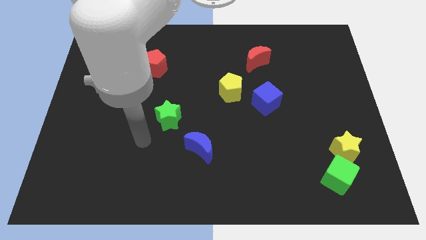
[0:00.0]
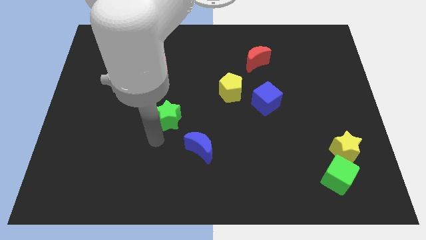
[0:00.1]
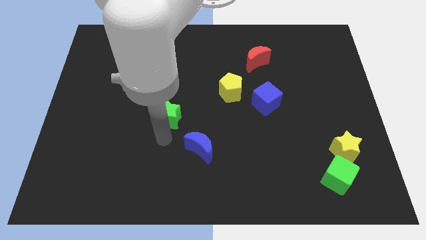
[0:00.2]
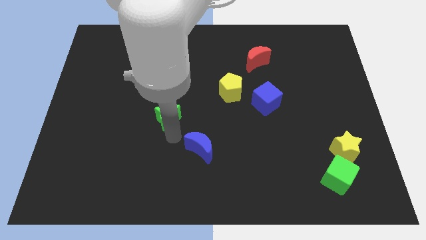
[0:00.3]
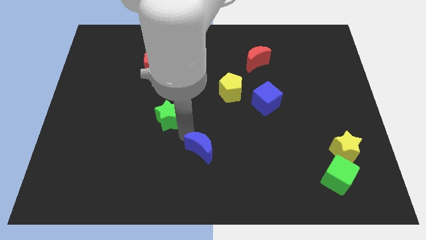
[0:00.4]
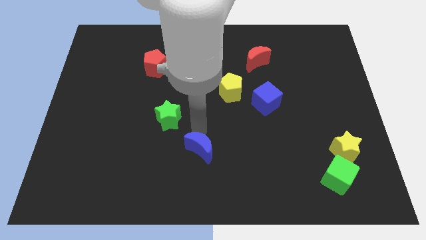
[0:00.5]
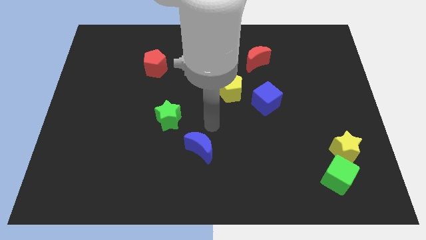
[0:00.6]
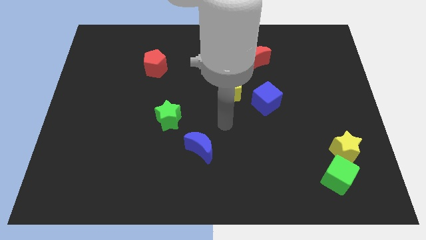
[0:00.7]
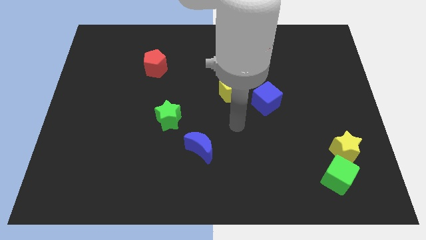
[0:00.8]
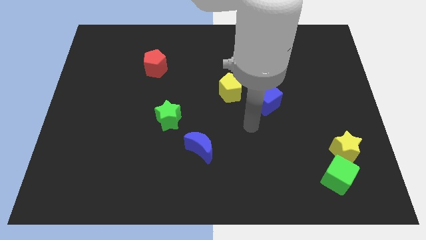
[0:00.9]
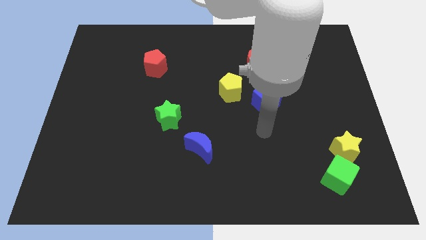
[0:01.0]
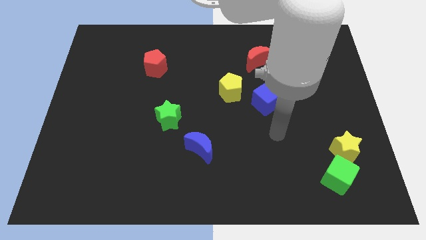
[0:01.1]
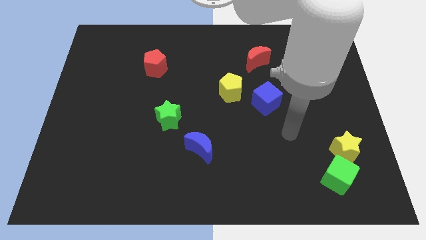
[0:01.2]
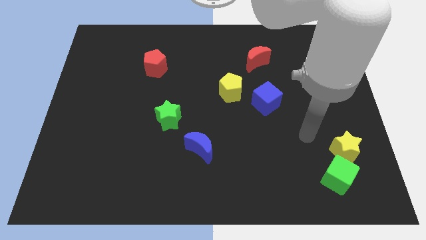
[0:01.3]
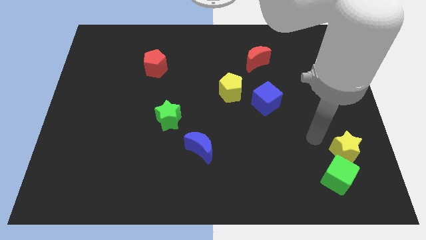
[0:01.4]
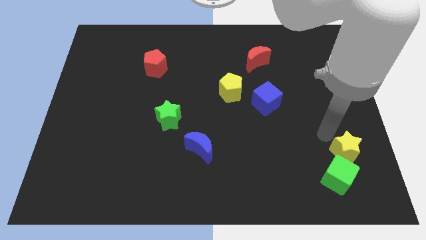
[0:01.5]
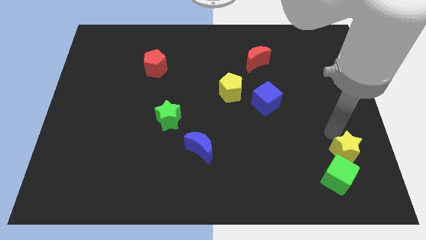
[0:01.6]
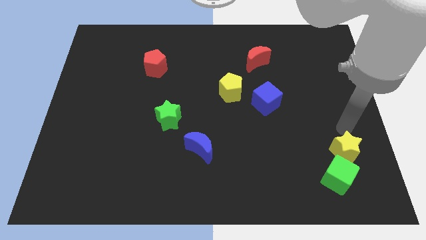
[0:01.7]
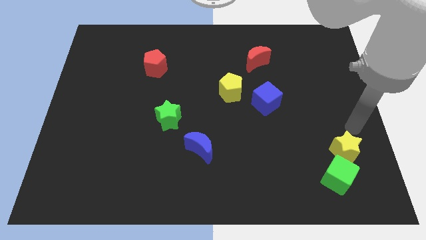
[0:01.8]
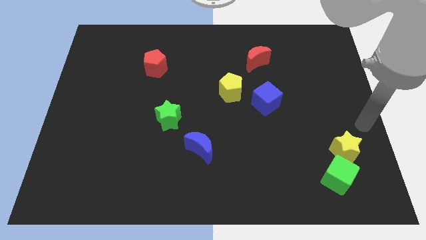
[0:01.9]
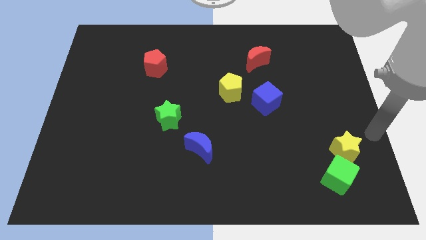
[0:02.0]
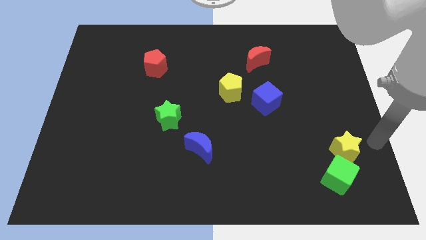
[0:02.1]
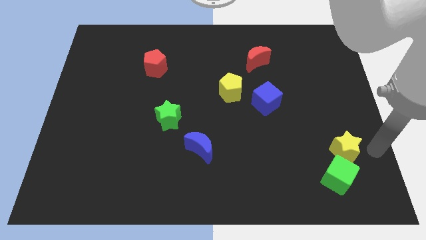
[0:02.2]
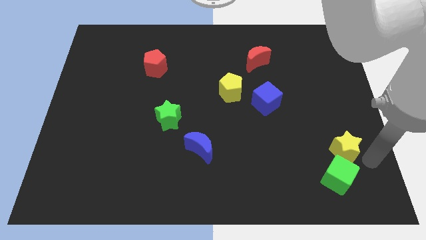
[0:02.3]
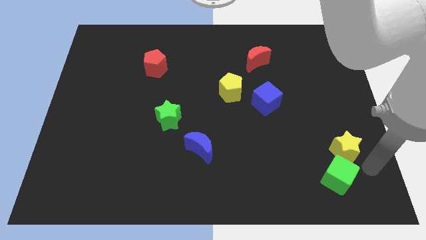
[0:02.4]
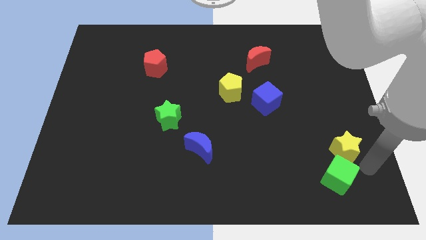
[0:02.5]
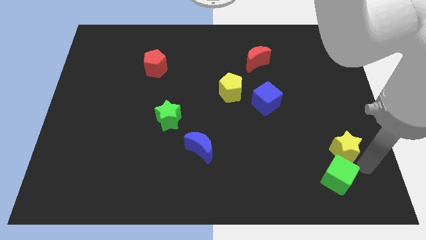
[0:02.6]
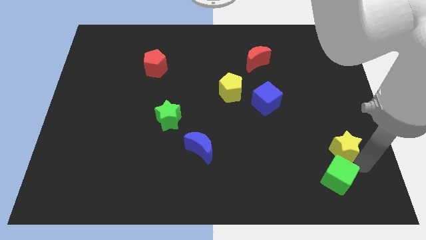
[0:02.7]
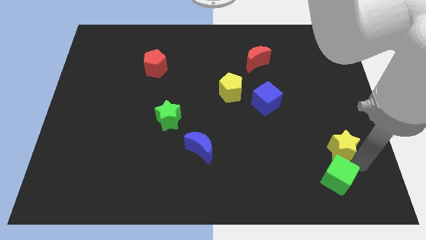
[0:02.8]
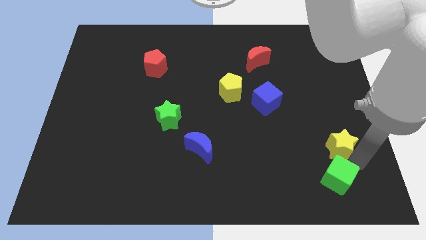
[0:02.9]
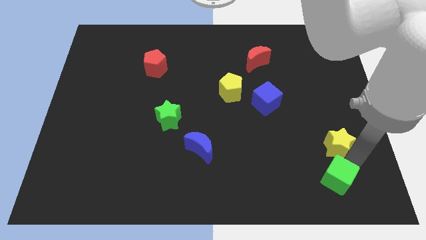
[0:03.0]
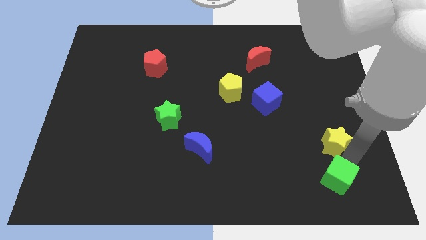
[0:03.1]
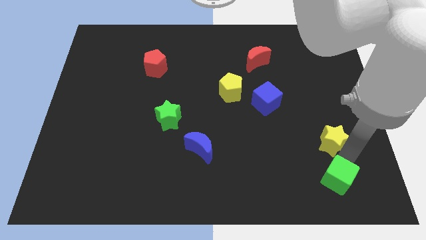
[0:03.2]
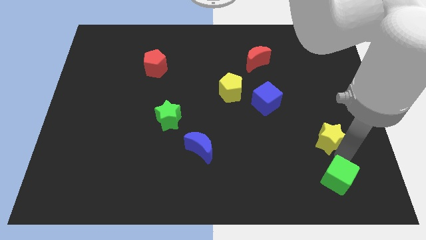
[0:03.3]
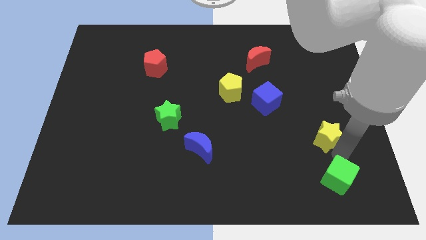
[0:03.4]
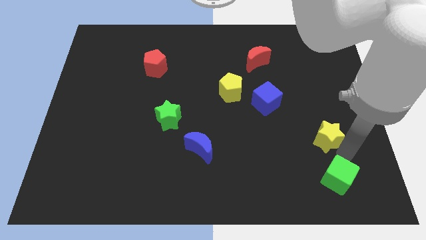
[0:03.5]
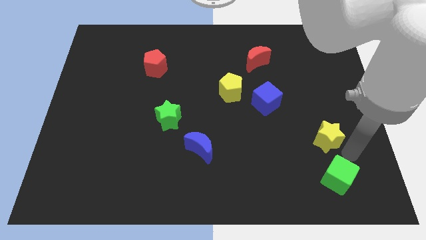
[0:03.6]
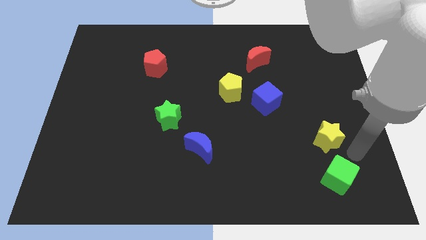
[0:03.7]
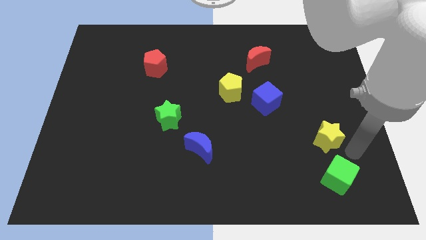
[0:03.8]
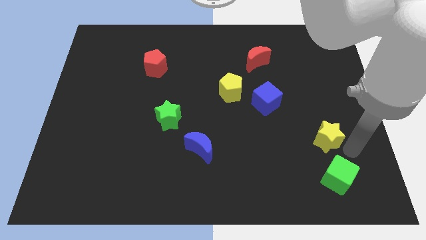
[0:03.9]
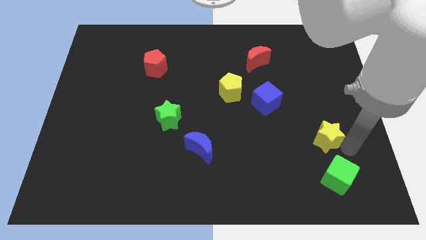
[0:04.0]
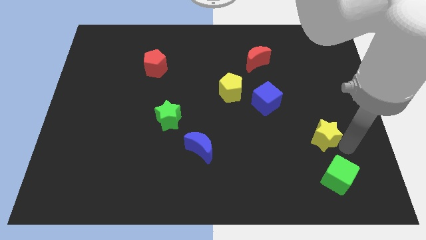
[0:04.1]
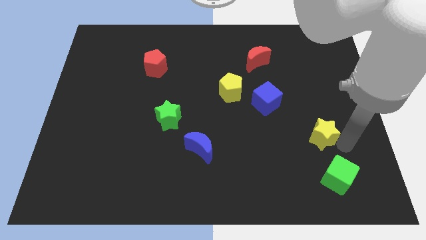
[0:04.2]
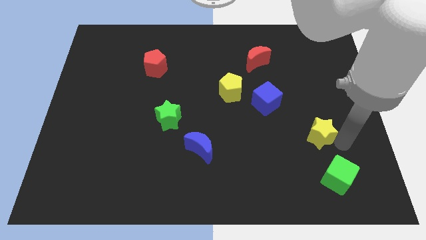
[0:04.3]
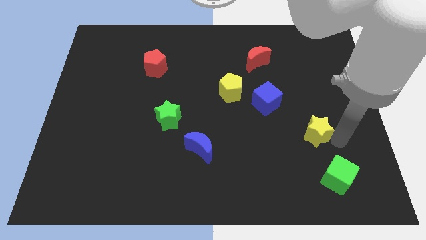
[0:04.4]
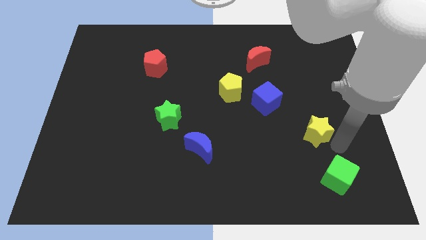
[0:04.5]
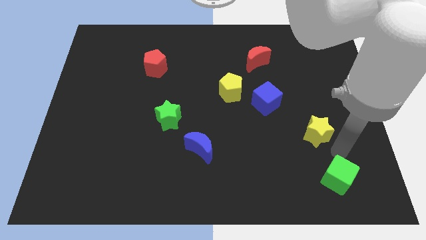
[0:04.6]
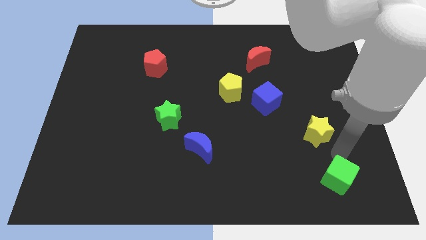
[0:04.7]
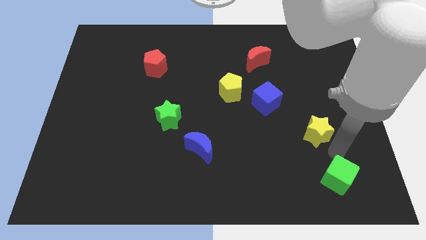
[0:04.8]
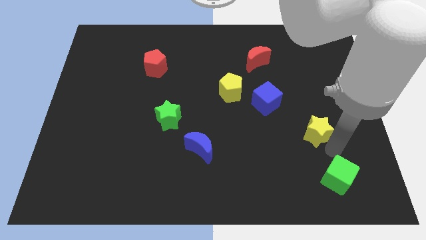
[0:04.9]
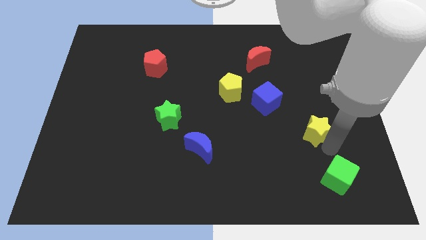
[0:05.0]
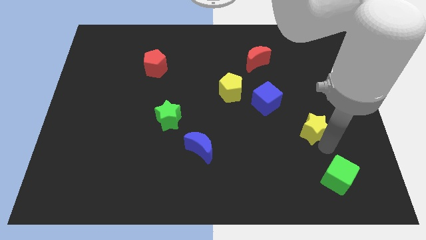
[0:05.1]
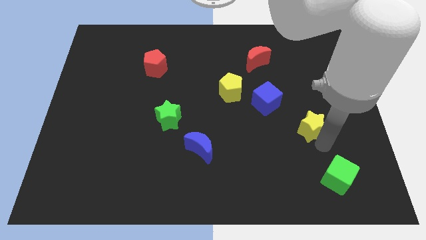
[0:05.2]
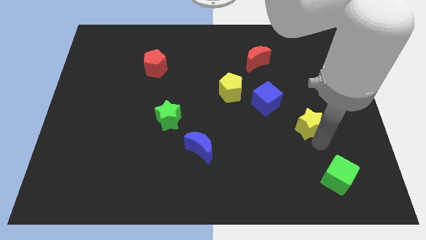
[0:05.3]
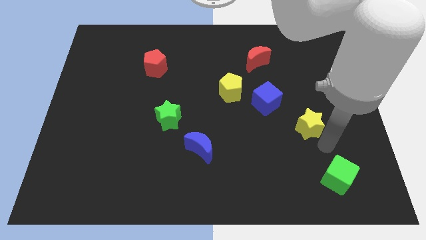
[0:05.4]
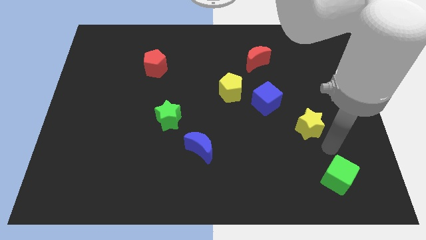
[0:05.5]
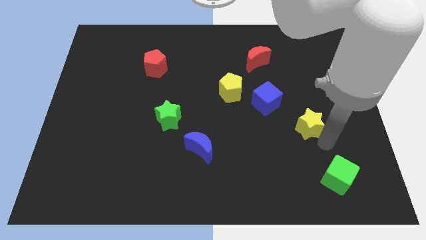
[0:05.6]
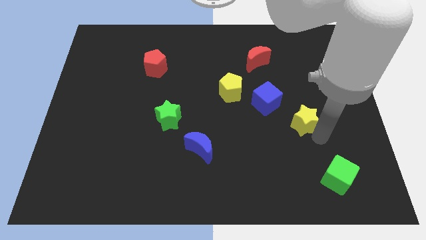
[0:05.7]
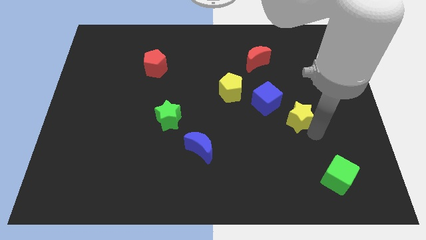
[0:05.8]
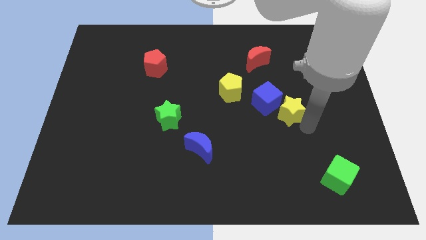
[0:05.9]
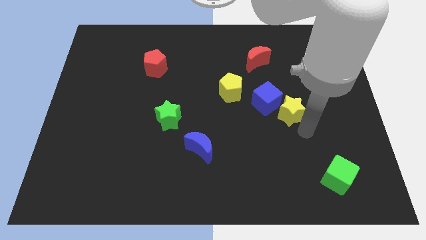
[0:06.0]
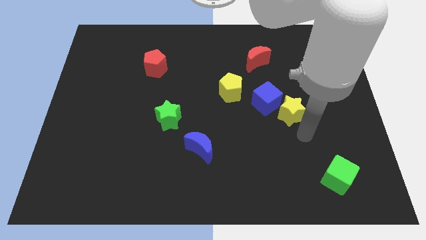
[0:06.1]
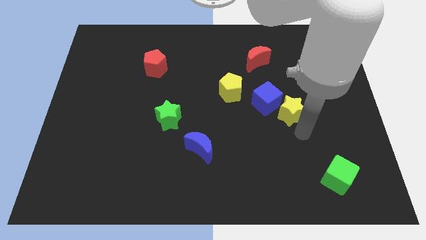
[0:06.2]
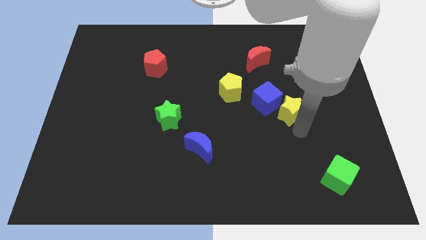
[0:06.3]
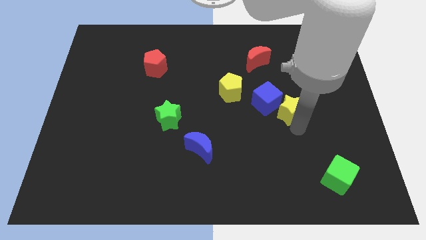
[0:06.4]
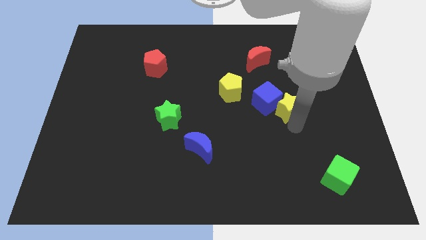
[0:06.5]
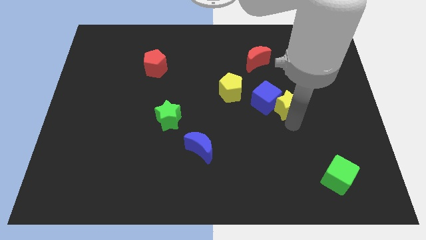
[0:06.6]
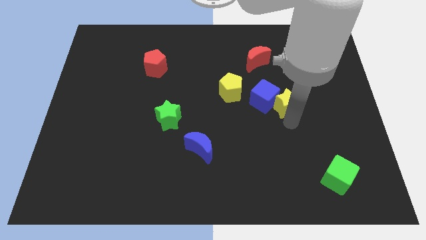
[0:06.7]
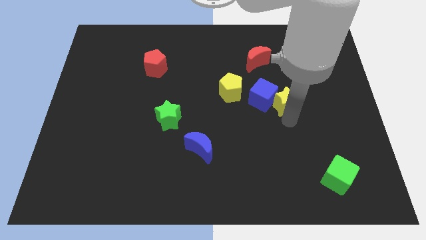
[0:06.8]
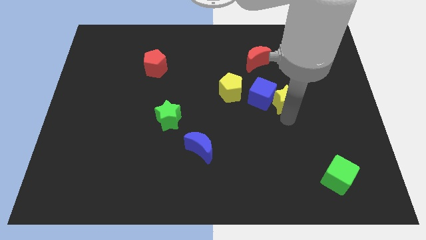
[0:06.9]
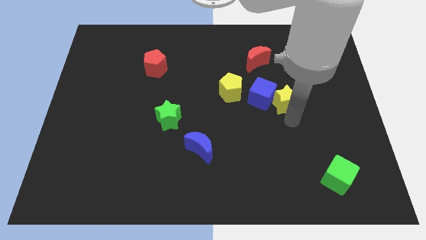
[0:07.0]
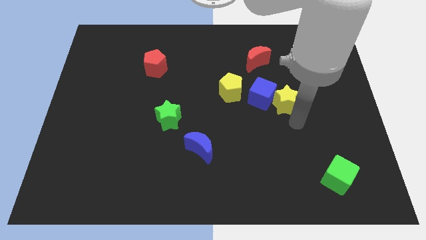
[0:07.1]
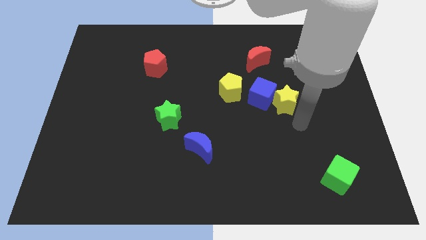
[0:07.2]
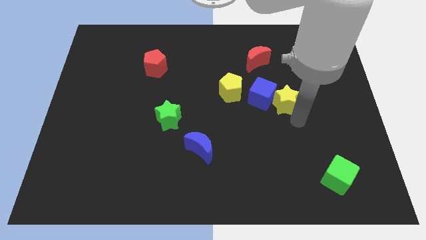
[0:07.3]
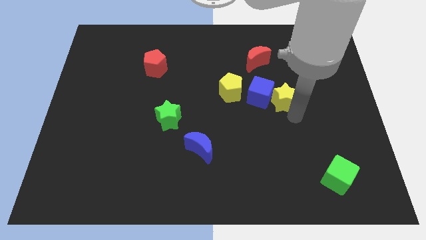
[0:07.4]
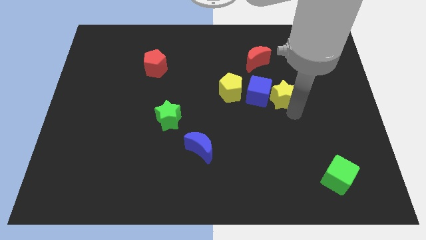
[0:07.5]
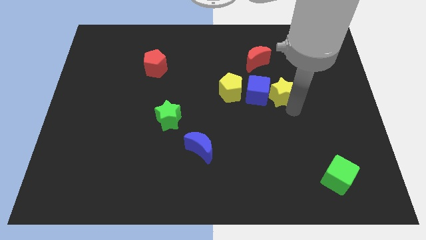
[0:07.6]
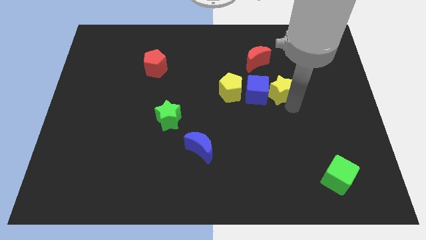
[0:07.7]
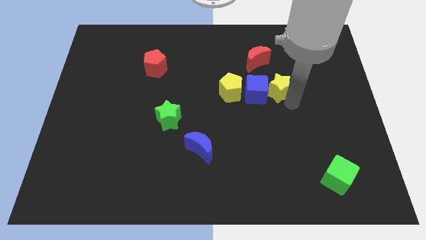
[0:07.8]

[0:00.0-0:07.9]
push the yellow star up and left

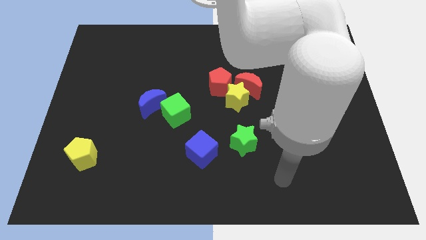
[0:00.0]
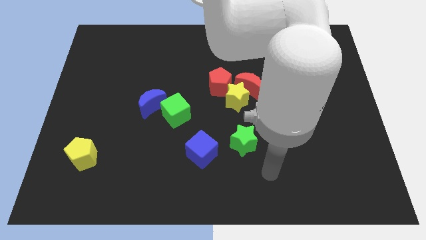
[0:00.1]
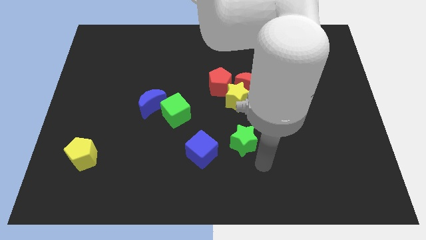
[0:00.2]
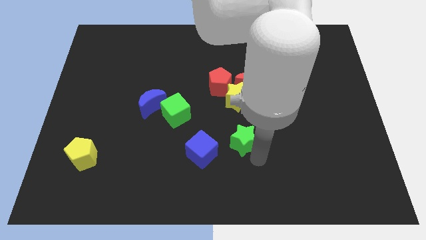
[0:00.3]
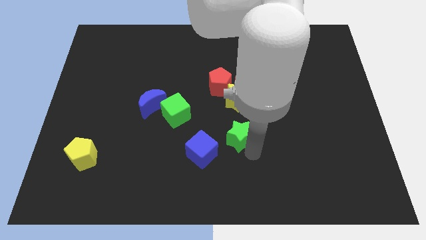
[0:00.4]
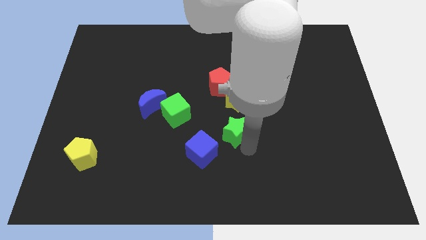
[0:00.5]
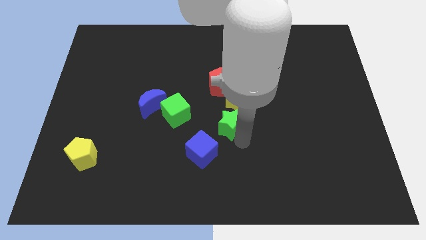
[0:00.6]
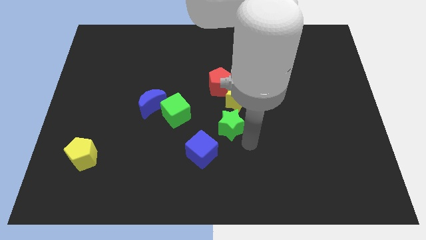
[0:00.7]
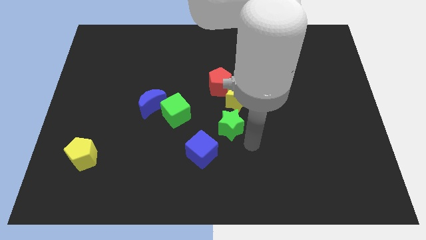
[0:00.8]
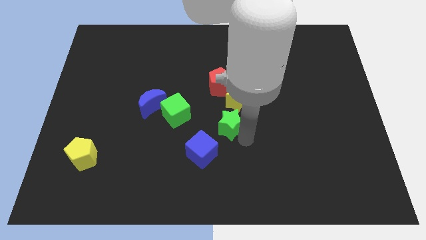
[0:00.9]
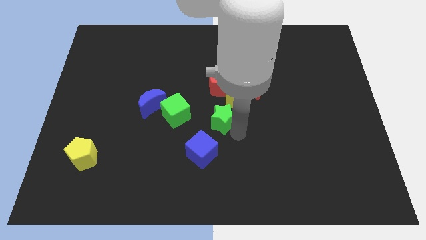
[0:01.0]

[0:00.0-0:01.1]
slightly move the green star upwards and then left
